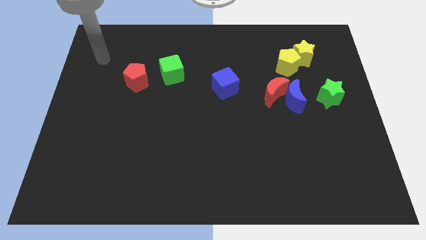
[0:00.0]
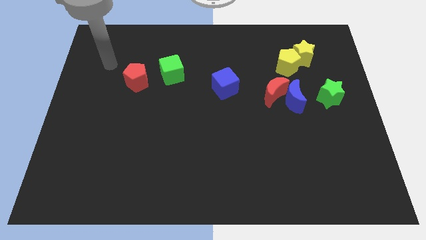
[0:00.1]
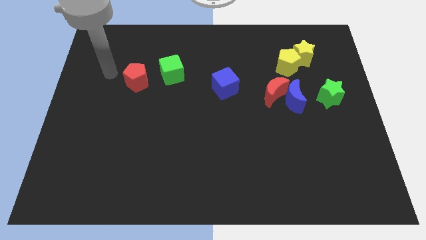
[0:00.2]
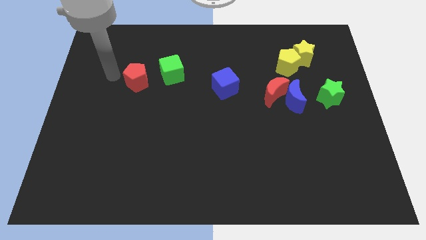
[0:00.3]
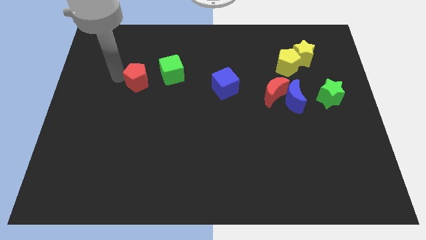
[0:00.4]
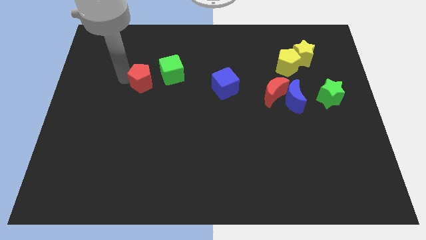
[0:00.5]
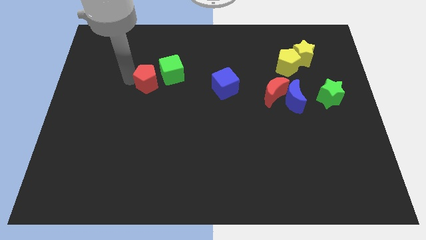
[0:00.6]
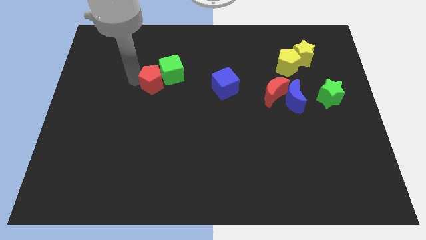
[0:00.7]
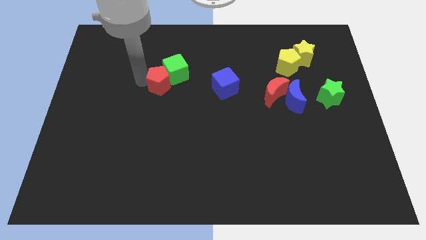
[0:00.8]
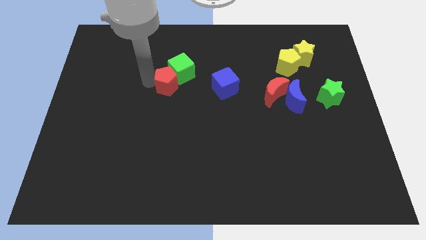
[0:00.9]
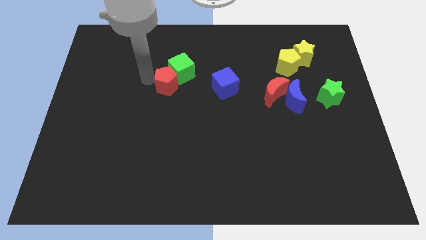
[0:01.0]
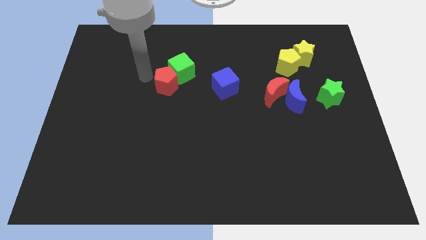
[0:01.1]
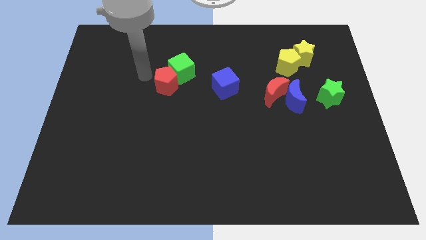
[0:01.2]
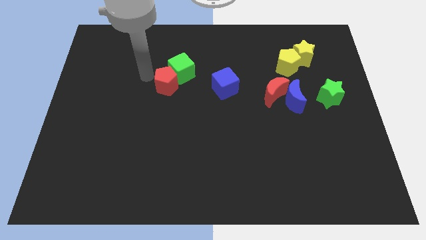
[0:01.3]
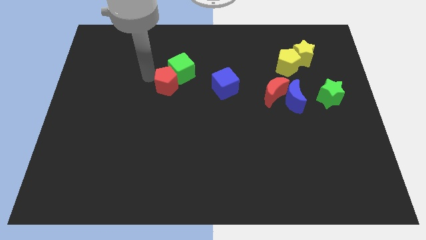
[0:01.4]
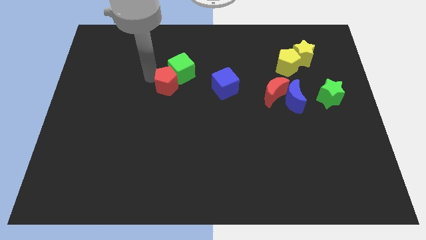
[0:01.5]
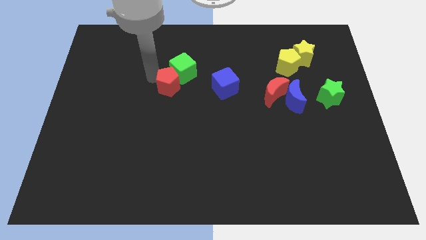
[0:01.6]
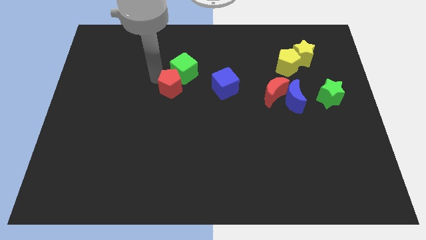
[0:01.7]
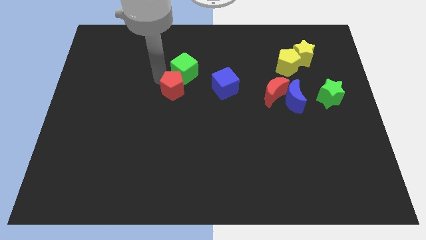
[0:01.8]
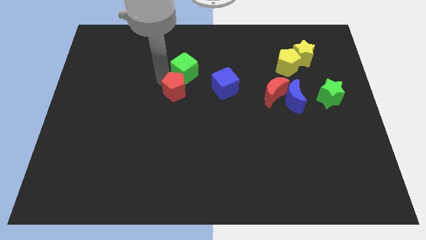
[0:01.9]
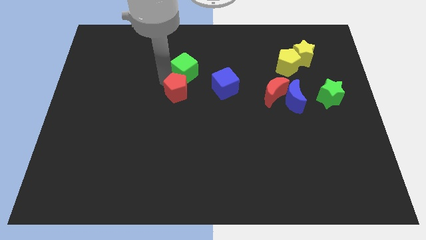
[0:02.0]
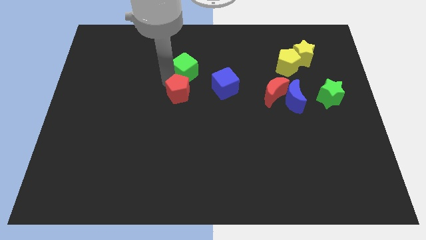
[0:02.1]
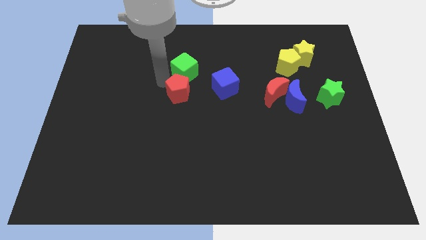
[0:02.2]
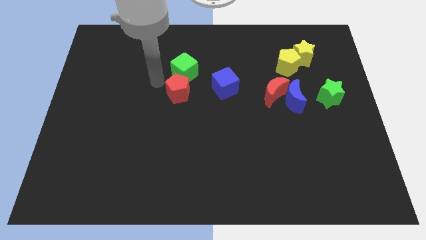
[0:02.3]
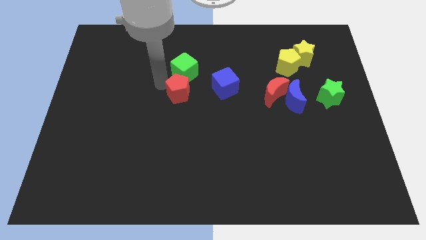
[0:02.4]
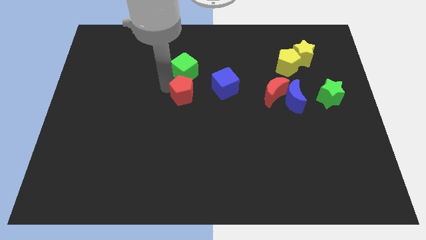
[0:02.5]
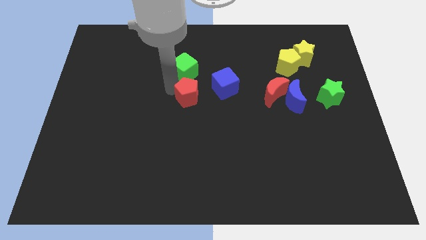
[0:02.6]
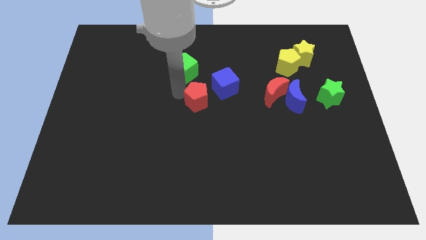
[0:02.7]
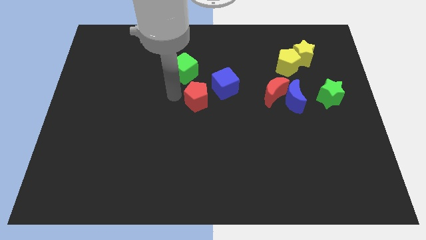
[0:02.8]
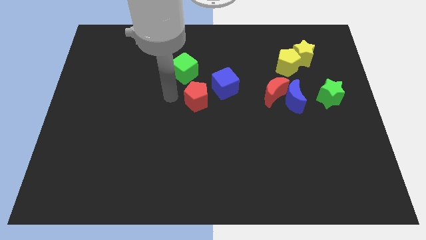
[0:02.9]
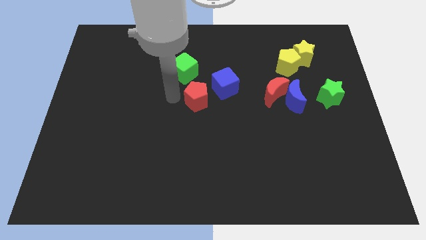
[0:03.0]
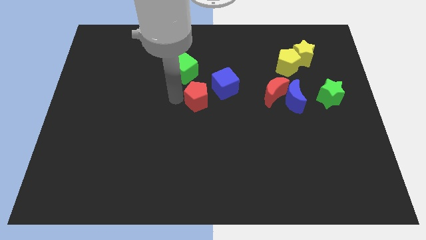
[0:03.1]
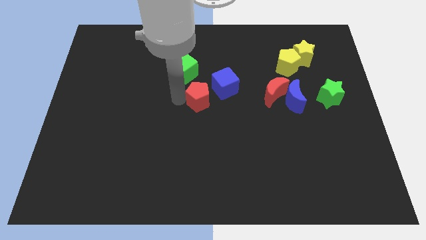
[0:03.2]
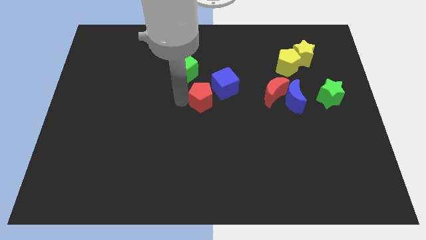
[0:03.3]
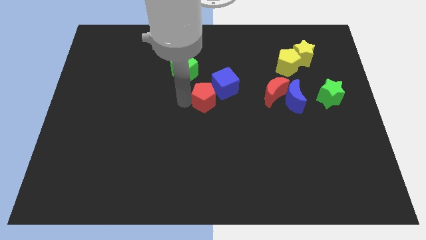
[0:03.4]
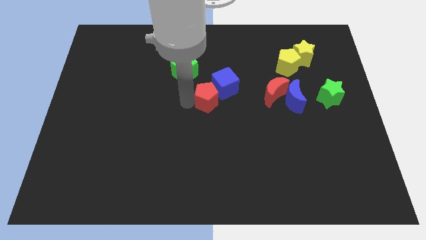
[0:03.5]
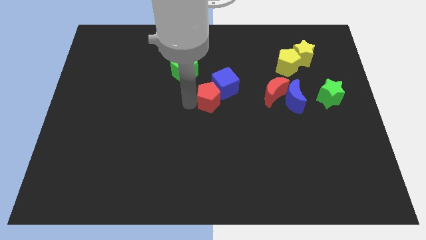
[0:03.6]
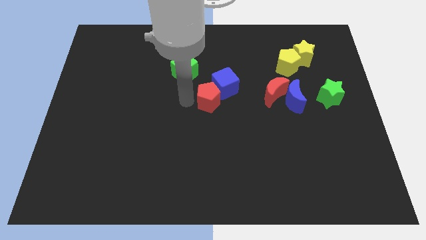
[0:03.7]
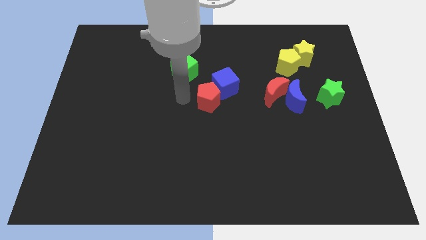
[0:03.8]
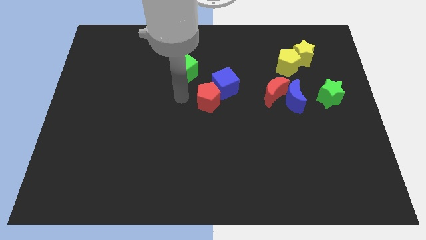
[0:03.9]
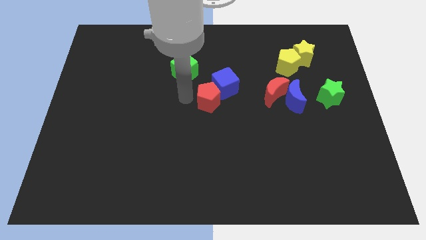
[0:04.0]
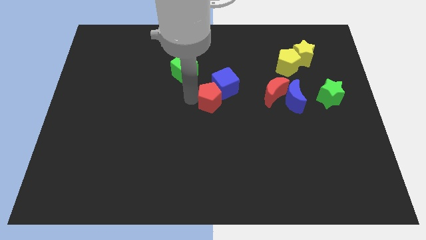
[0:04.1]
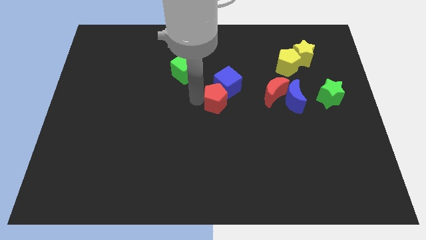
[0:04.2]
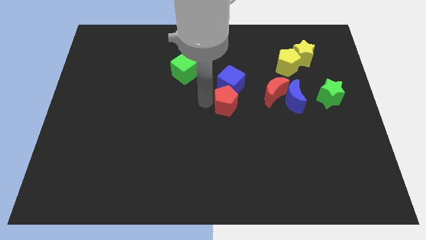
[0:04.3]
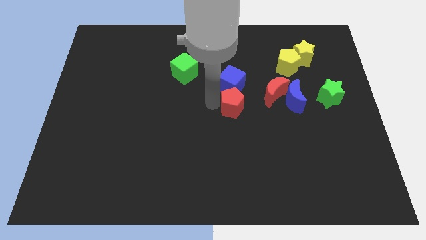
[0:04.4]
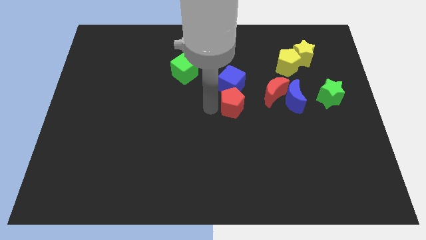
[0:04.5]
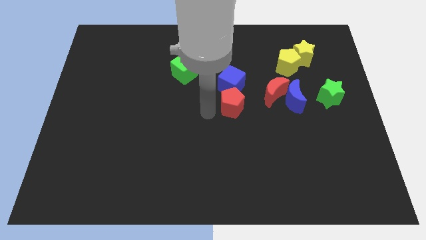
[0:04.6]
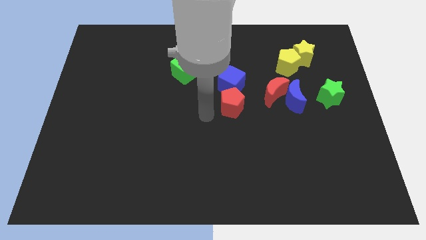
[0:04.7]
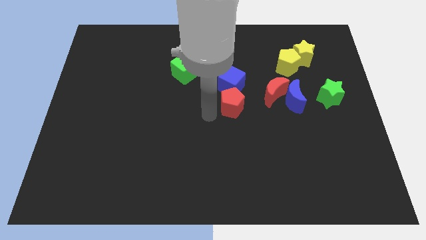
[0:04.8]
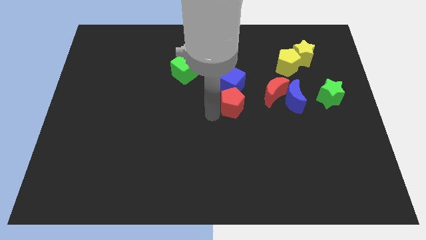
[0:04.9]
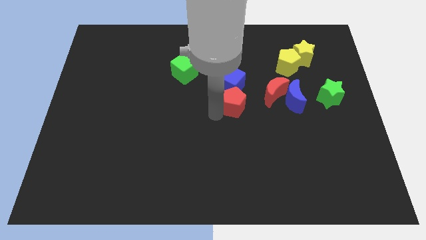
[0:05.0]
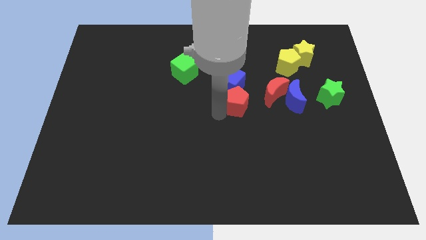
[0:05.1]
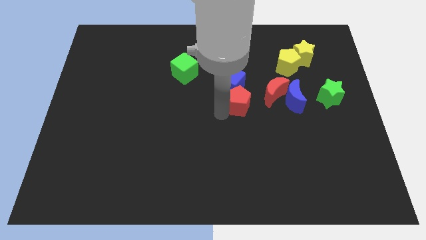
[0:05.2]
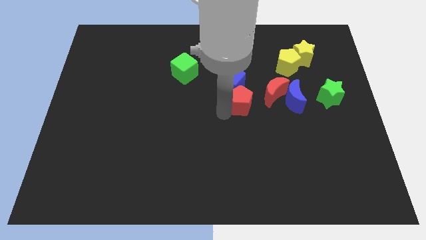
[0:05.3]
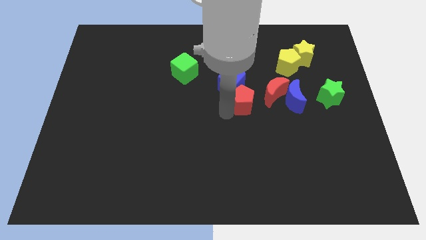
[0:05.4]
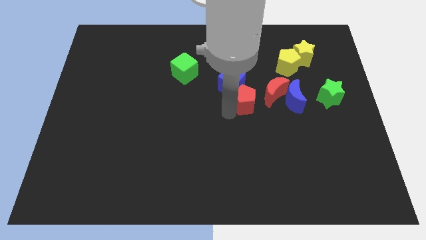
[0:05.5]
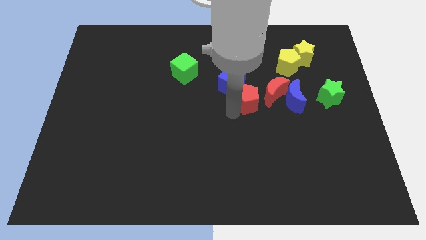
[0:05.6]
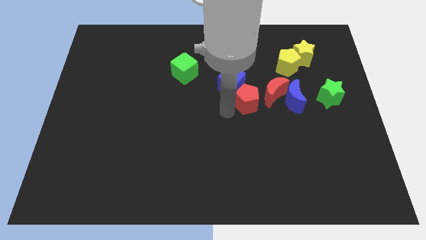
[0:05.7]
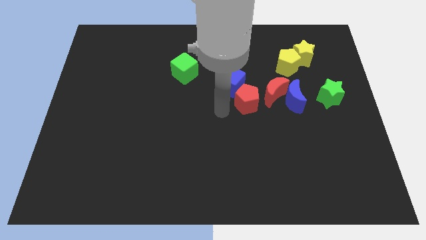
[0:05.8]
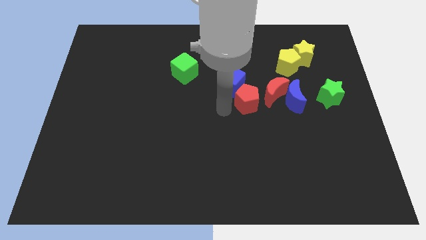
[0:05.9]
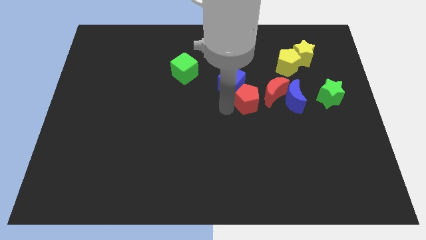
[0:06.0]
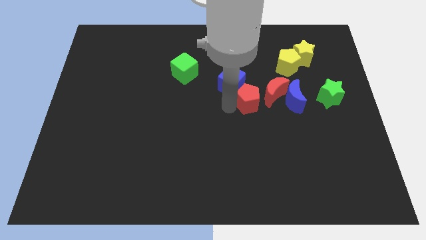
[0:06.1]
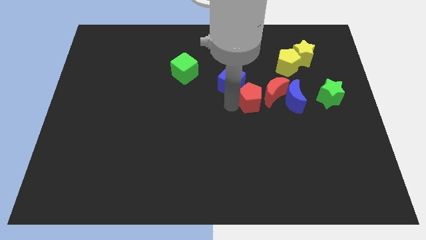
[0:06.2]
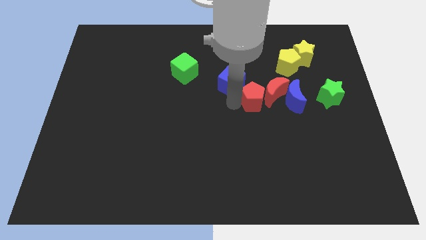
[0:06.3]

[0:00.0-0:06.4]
push the red pentagon close to the red moon
